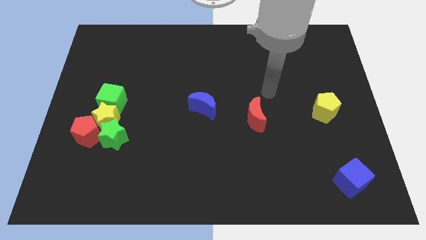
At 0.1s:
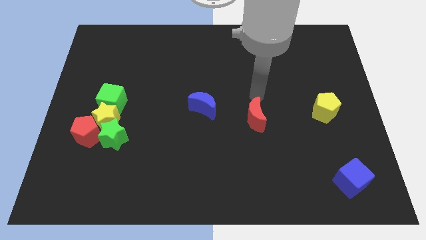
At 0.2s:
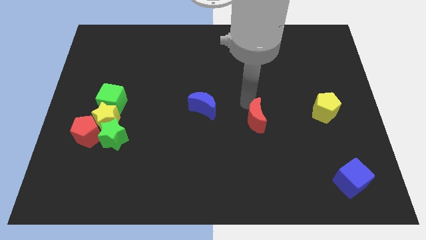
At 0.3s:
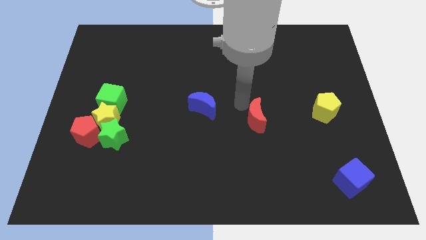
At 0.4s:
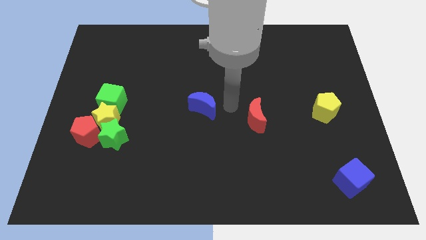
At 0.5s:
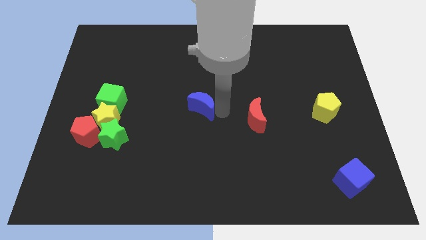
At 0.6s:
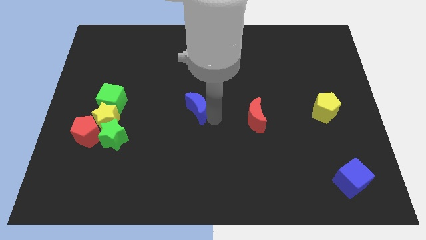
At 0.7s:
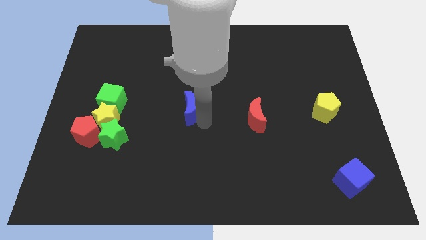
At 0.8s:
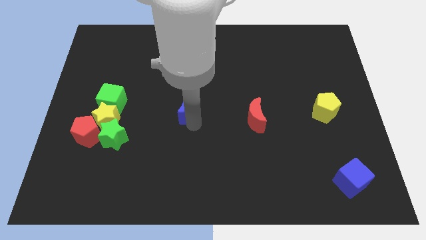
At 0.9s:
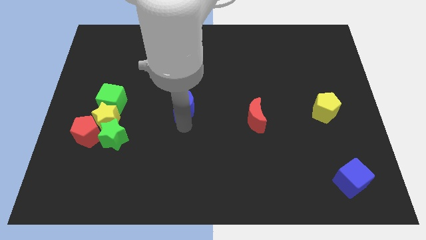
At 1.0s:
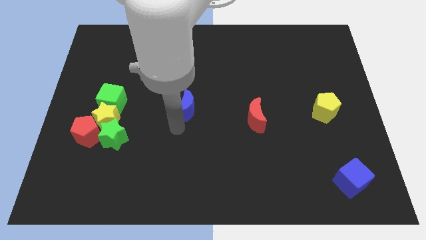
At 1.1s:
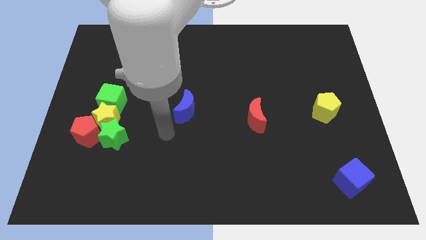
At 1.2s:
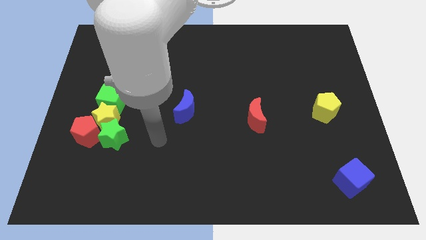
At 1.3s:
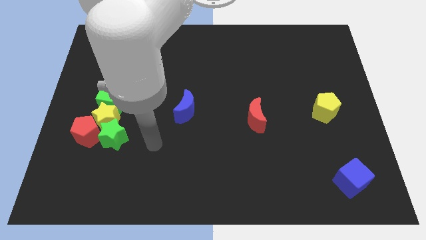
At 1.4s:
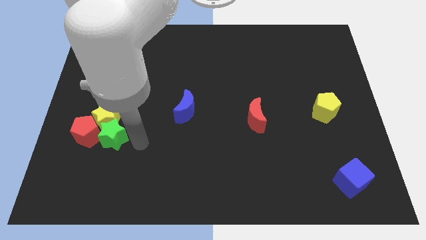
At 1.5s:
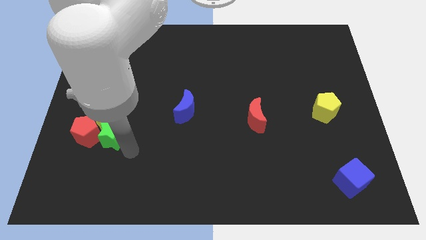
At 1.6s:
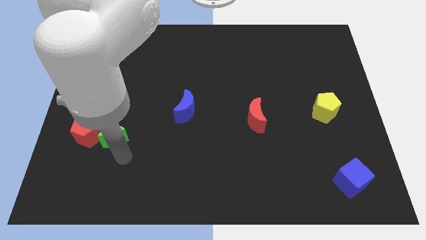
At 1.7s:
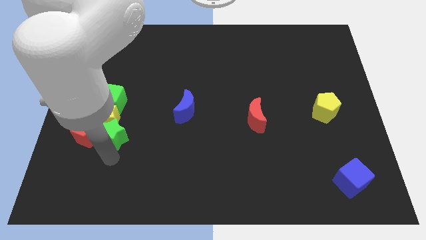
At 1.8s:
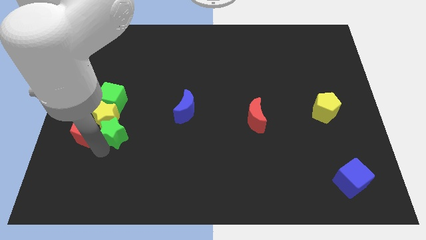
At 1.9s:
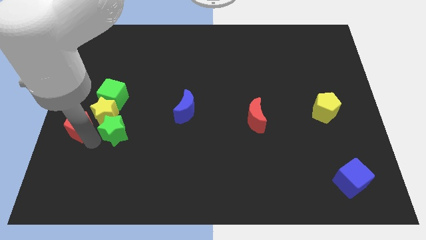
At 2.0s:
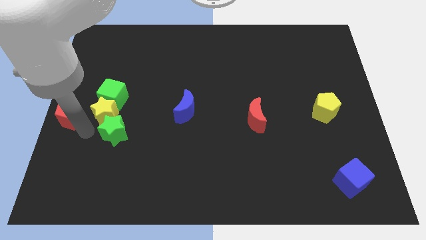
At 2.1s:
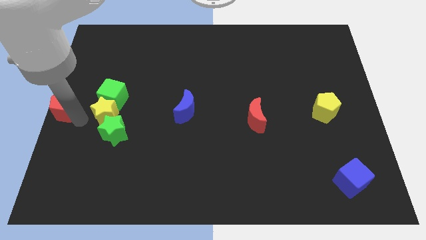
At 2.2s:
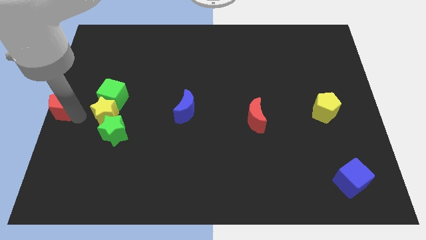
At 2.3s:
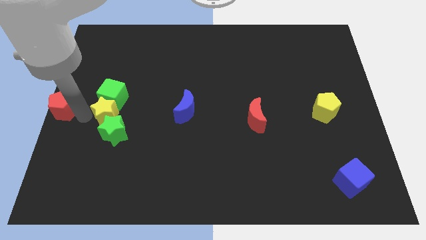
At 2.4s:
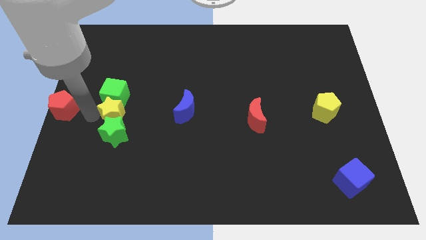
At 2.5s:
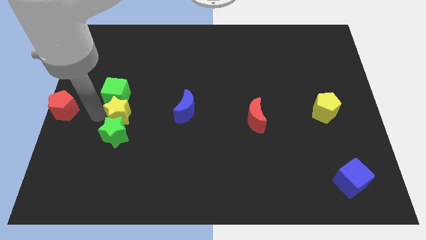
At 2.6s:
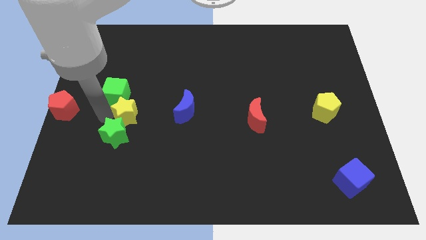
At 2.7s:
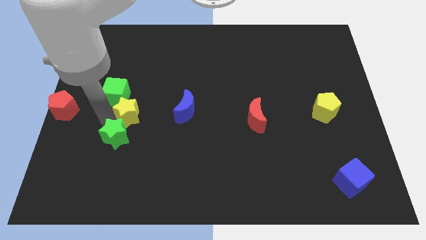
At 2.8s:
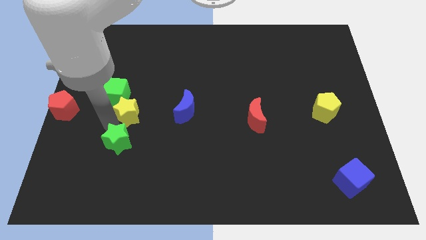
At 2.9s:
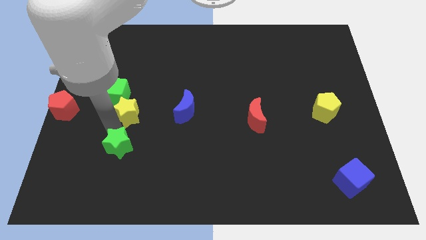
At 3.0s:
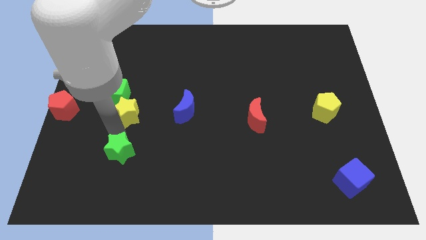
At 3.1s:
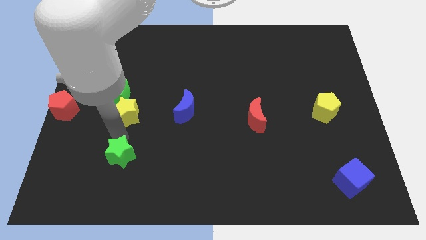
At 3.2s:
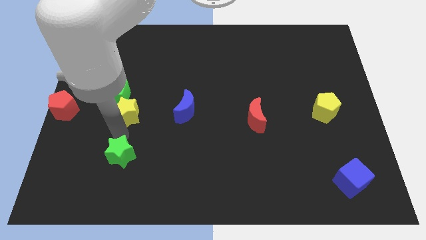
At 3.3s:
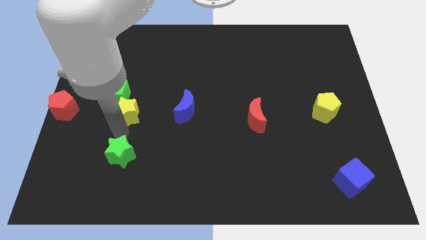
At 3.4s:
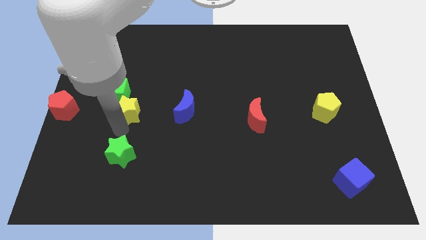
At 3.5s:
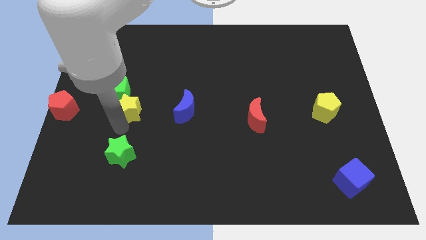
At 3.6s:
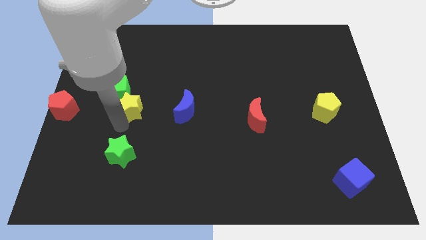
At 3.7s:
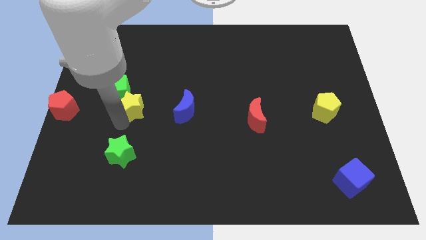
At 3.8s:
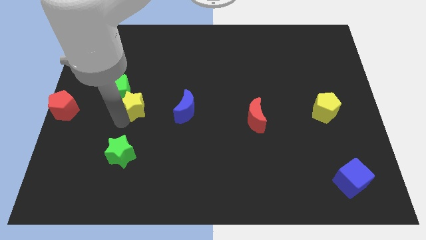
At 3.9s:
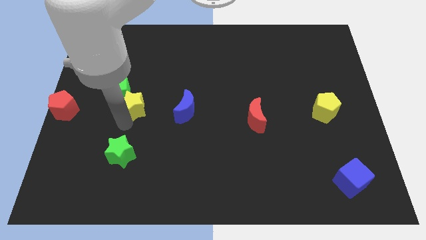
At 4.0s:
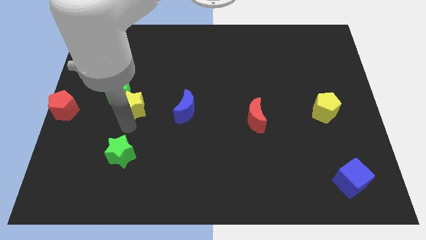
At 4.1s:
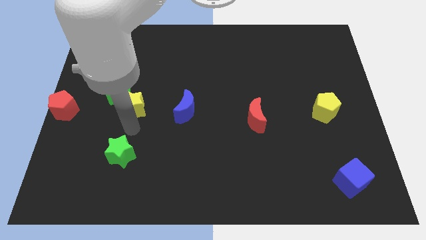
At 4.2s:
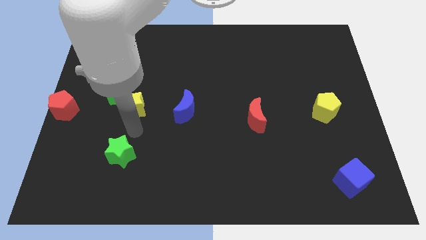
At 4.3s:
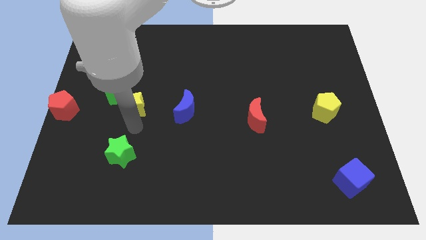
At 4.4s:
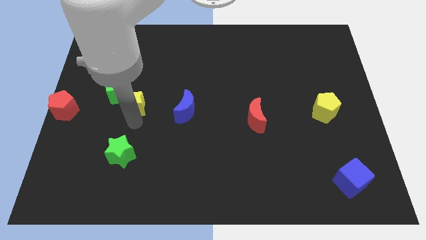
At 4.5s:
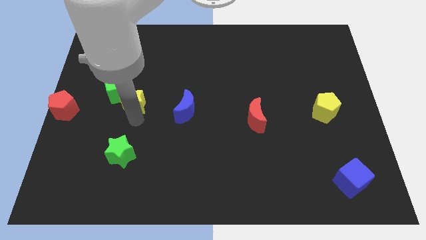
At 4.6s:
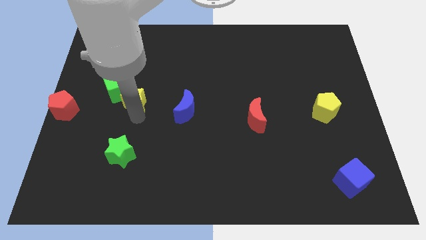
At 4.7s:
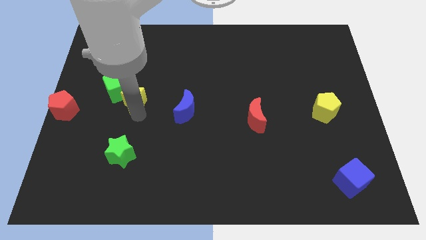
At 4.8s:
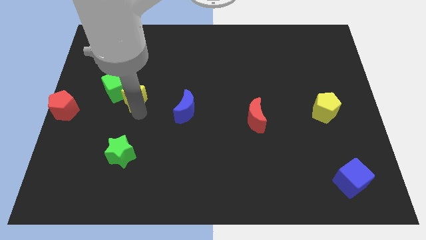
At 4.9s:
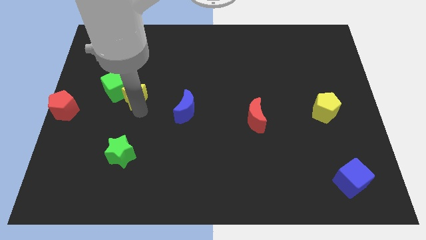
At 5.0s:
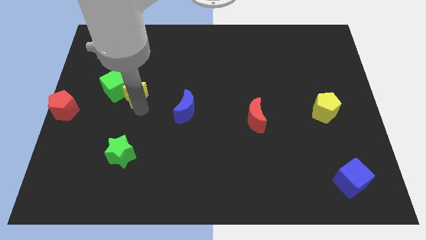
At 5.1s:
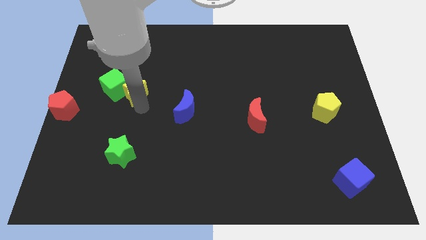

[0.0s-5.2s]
separate the yellow star from the red pentagon, green star, and green cube

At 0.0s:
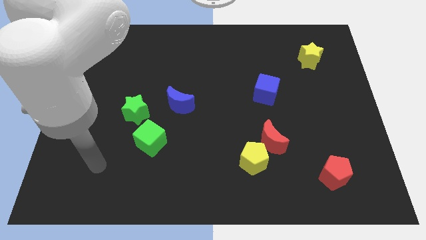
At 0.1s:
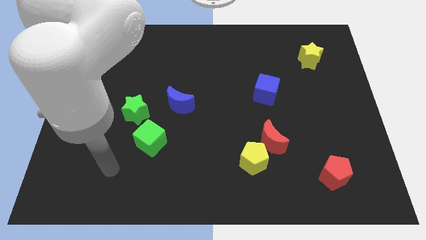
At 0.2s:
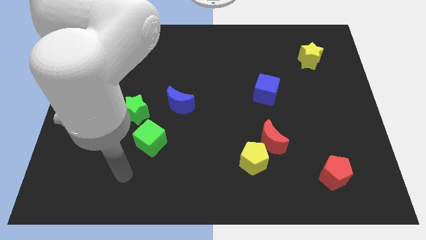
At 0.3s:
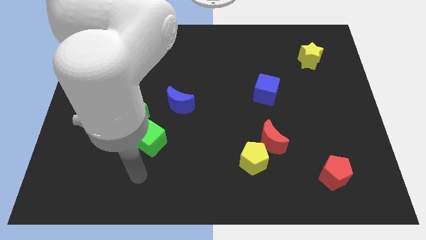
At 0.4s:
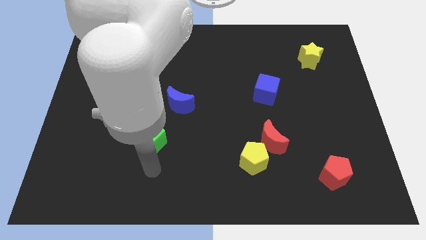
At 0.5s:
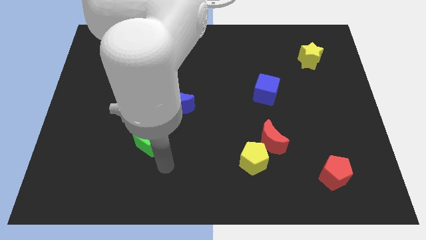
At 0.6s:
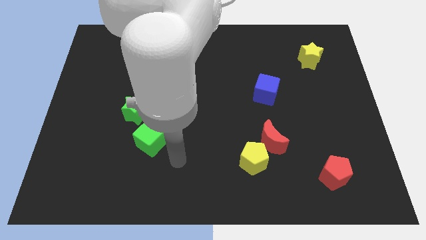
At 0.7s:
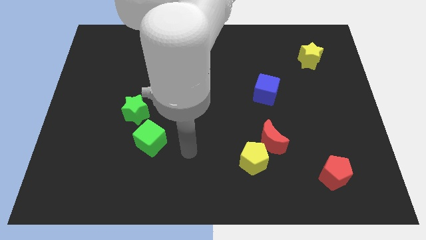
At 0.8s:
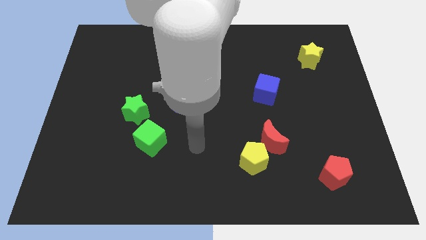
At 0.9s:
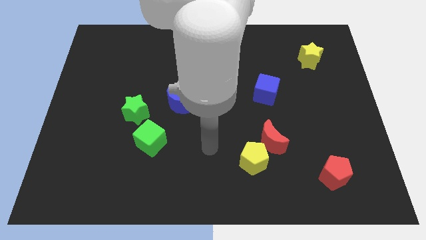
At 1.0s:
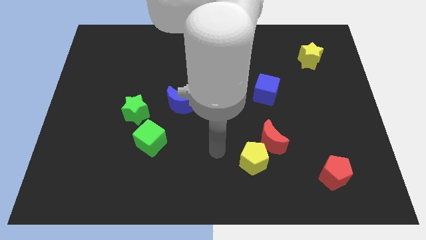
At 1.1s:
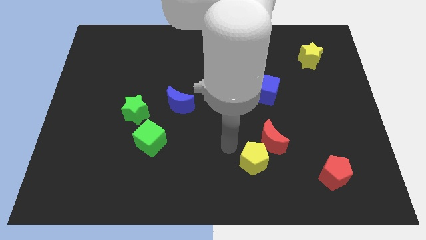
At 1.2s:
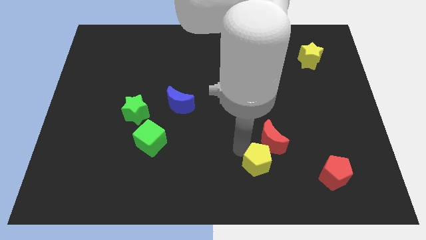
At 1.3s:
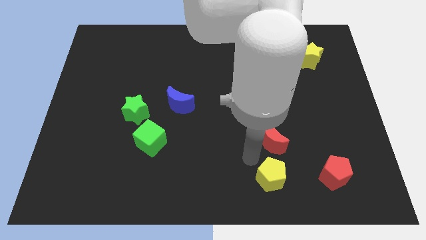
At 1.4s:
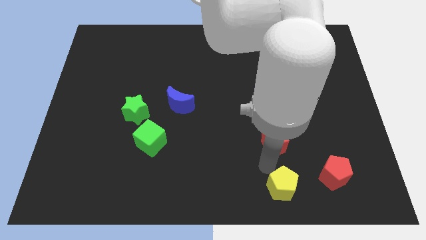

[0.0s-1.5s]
move the red moon away from the yellow pentagon

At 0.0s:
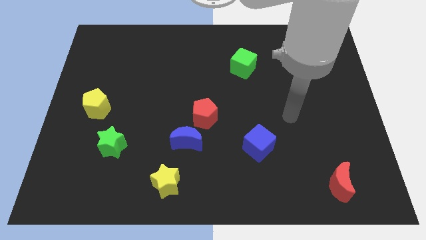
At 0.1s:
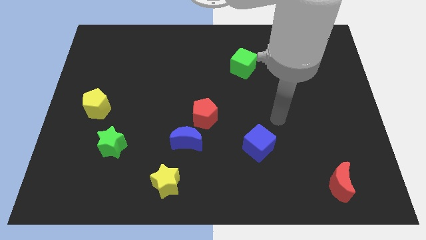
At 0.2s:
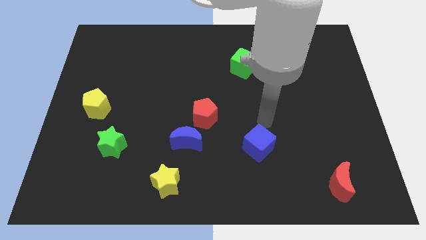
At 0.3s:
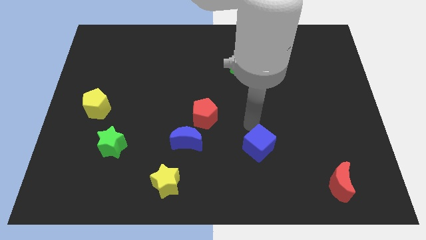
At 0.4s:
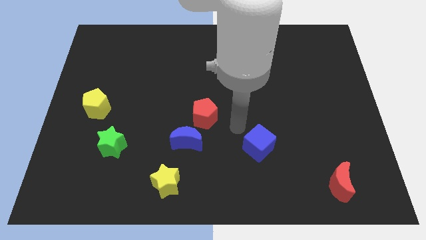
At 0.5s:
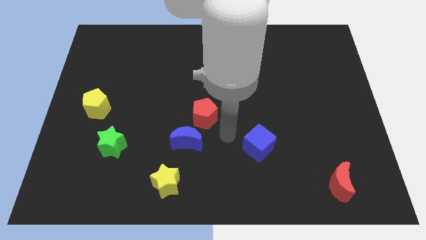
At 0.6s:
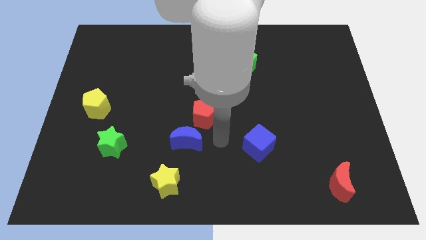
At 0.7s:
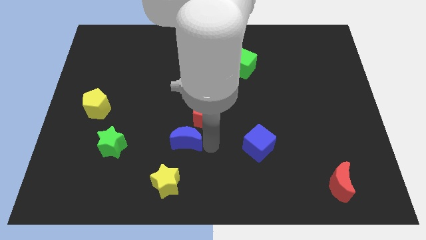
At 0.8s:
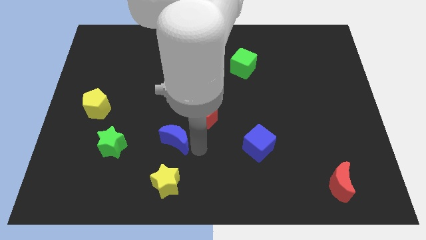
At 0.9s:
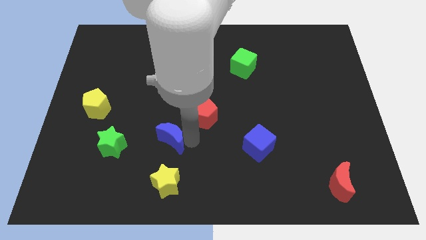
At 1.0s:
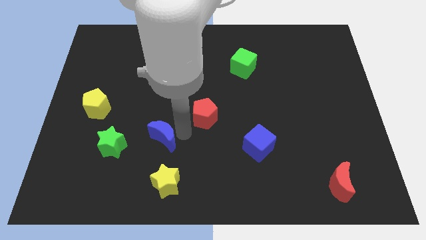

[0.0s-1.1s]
move the red pentagon away from the blue moon

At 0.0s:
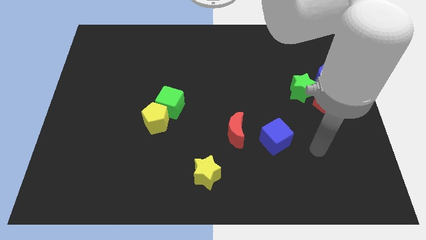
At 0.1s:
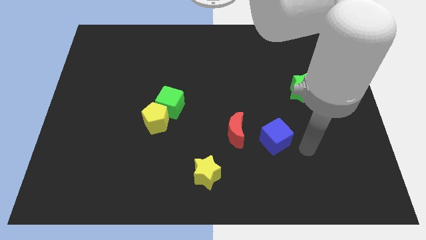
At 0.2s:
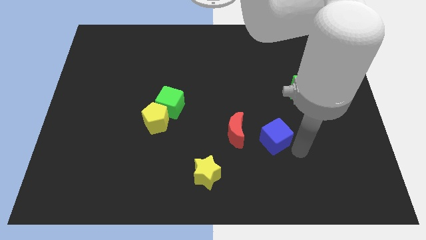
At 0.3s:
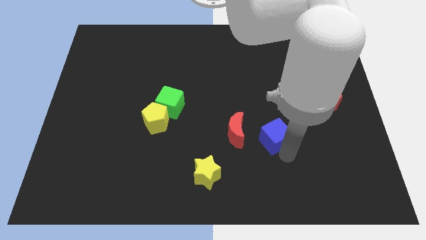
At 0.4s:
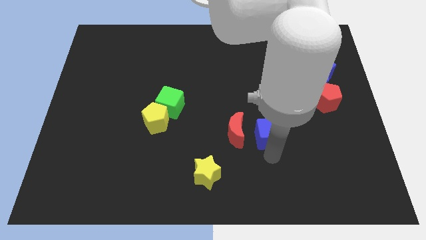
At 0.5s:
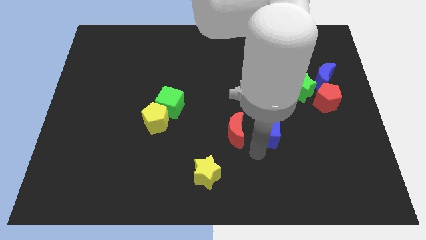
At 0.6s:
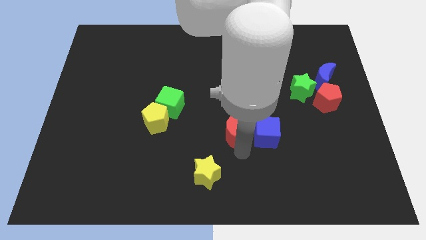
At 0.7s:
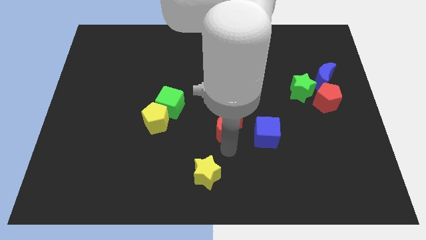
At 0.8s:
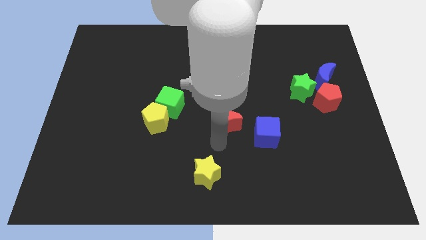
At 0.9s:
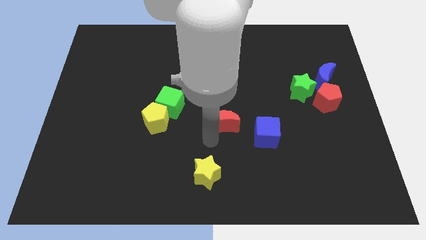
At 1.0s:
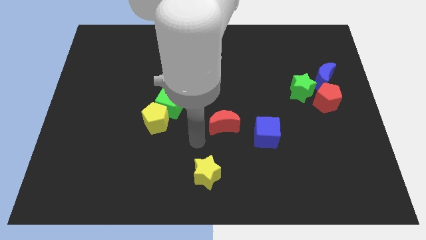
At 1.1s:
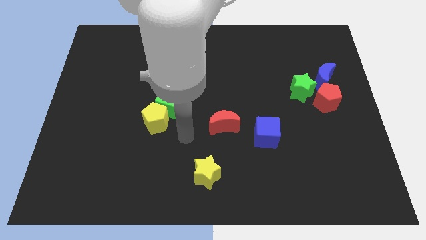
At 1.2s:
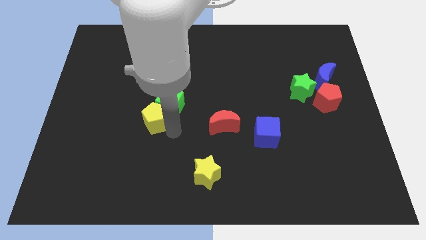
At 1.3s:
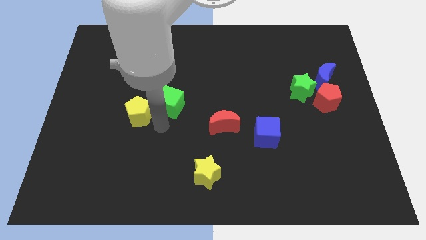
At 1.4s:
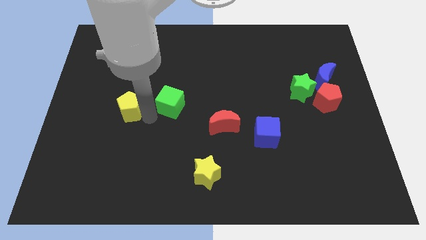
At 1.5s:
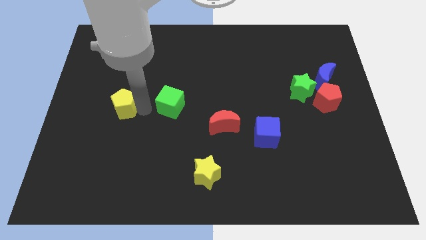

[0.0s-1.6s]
move the green cube away from the yellow pentagon
